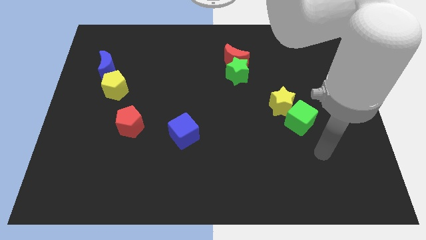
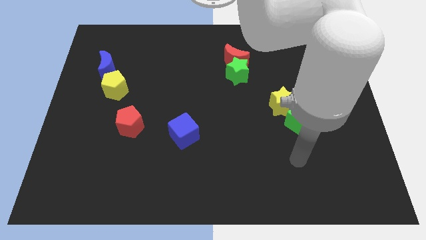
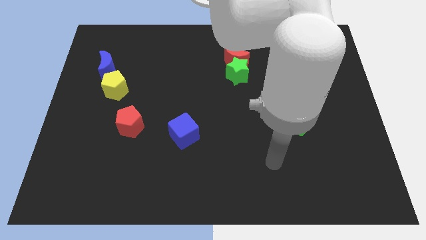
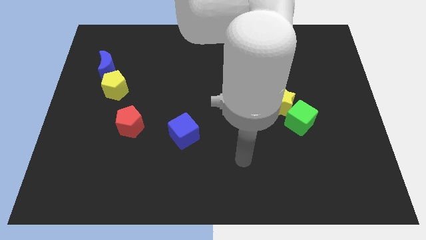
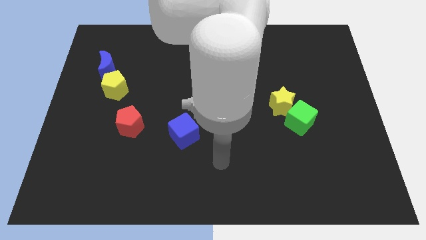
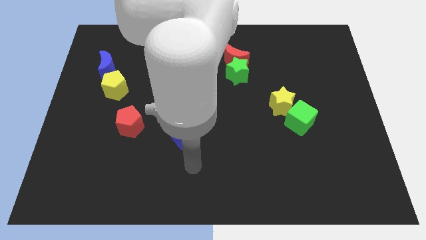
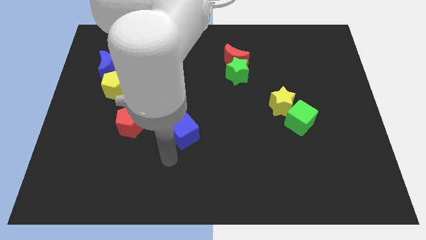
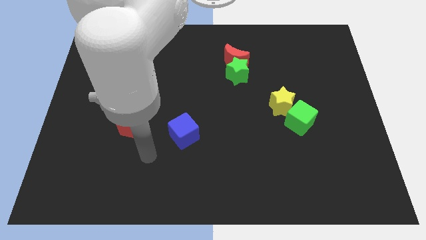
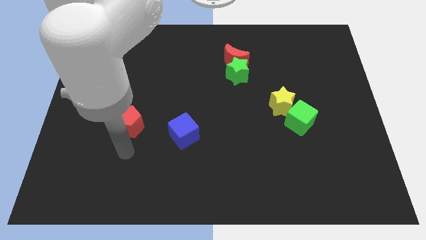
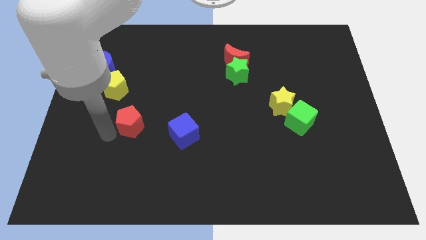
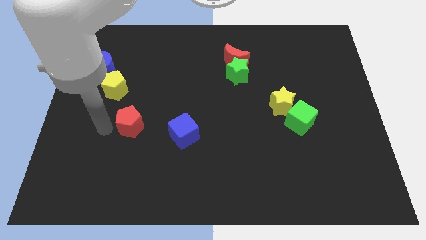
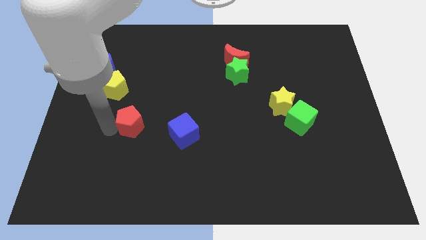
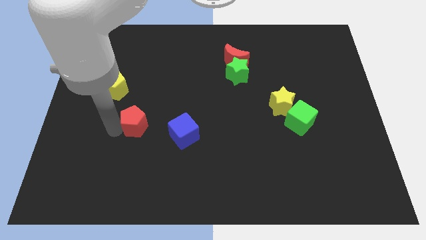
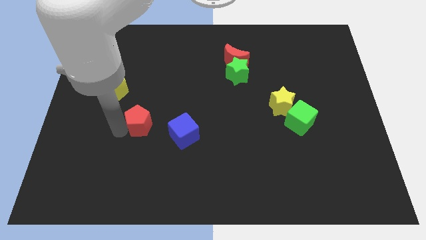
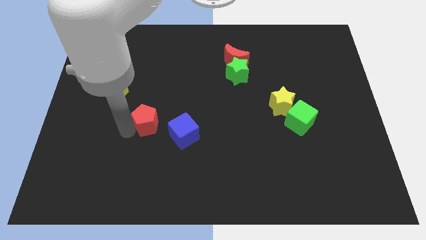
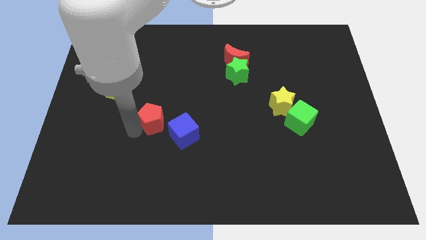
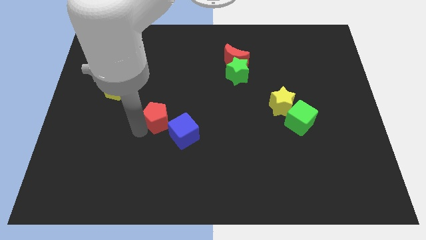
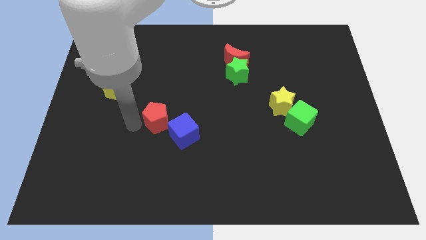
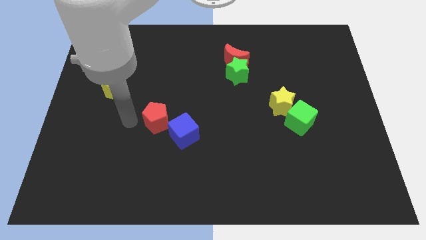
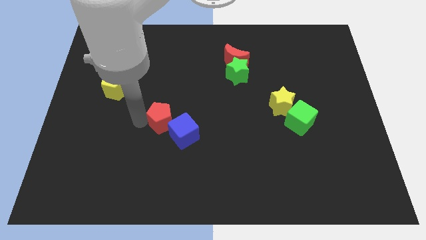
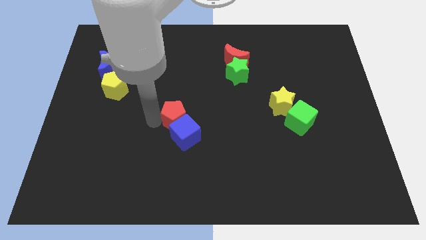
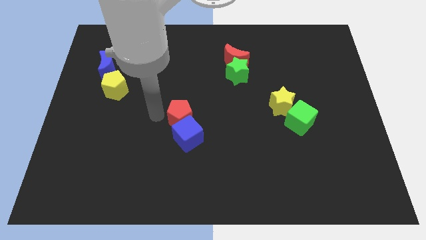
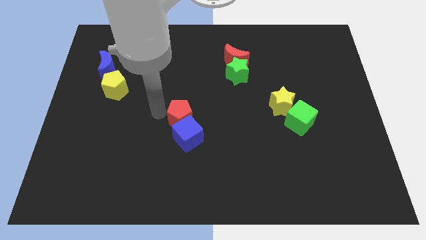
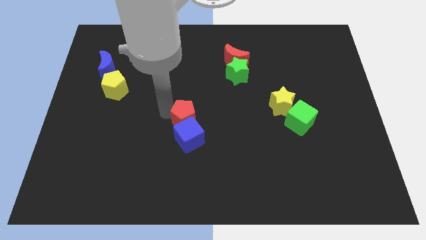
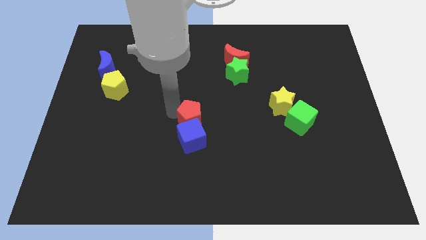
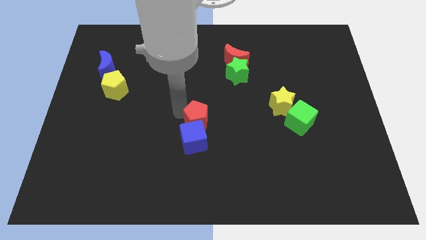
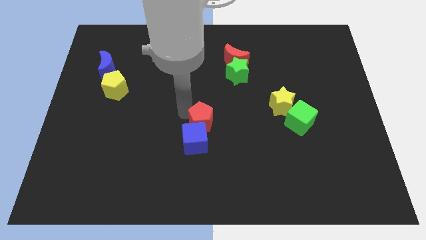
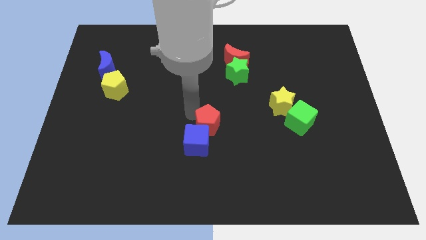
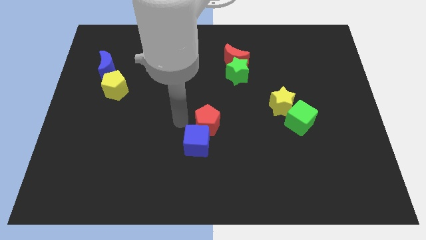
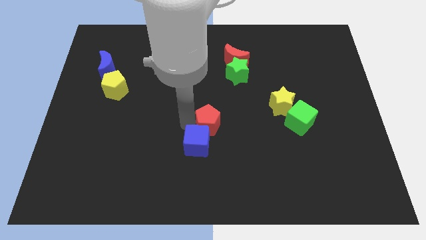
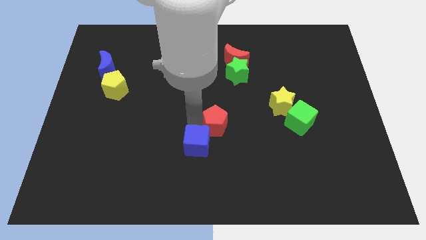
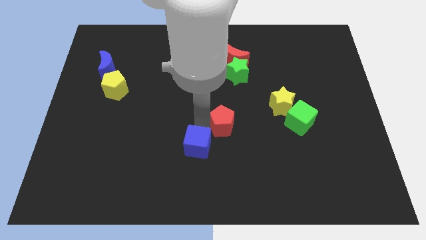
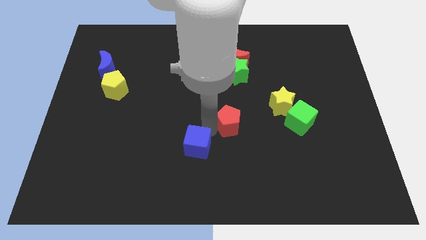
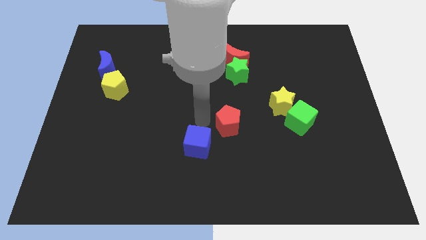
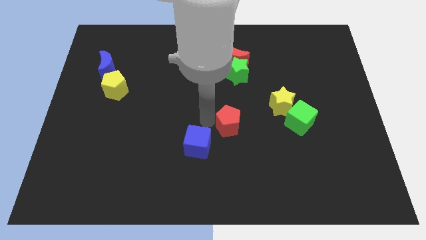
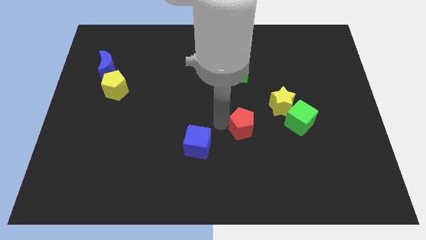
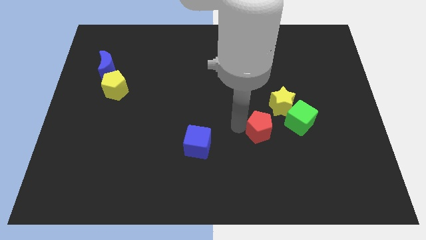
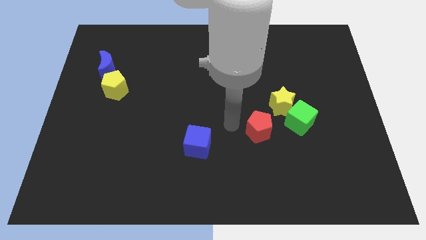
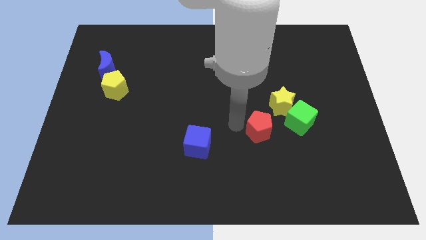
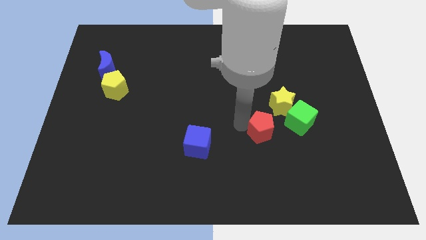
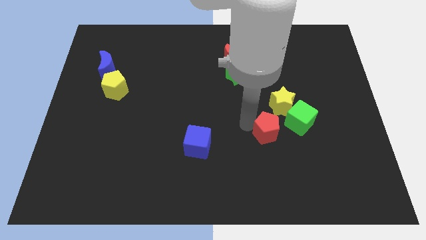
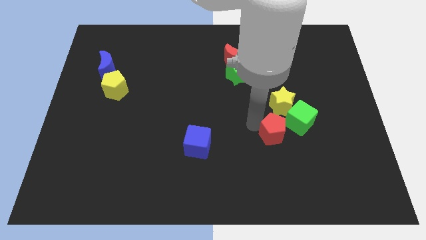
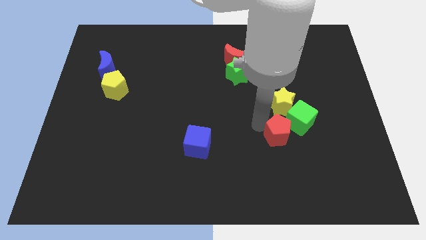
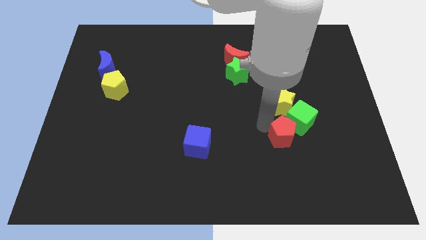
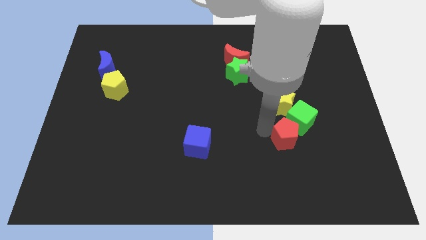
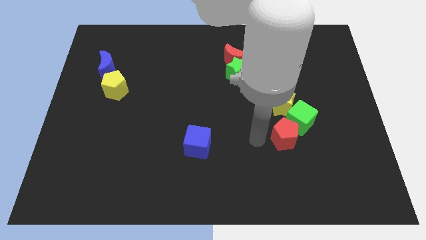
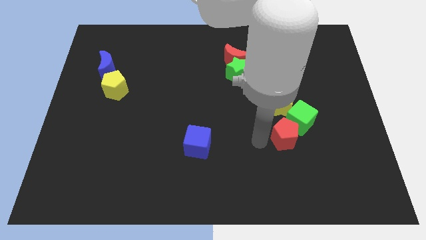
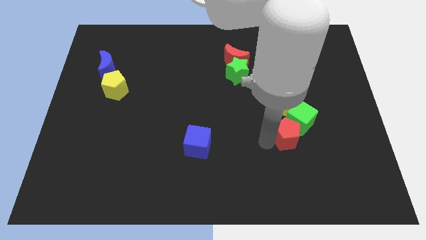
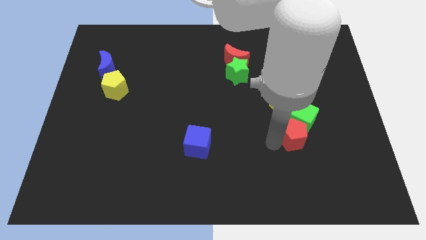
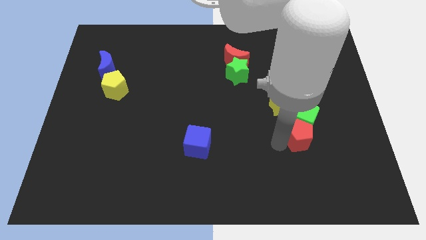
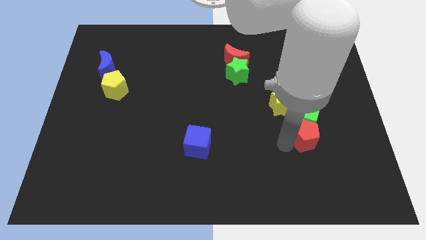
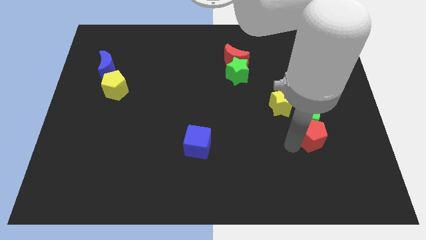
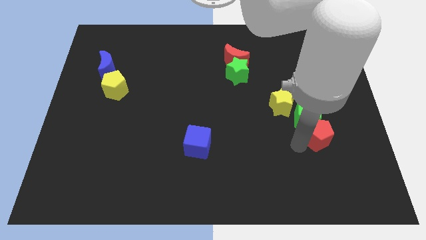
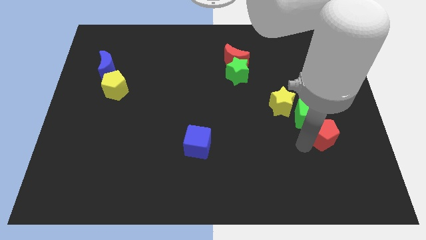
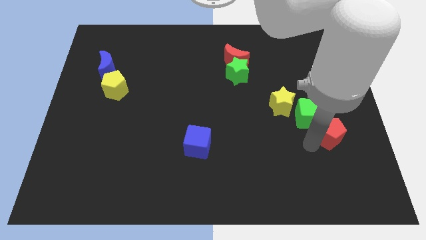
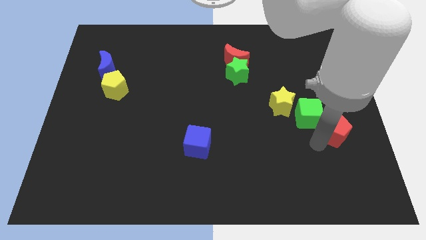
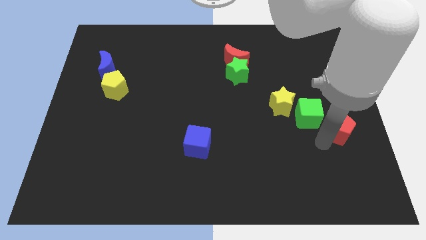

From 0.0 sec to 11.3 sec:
move the red pentagon to the right side
